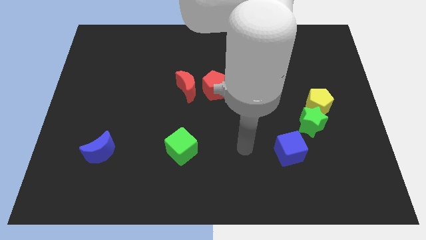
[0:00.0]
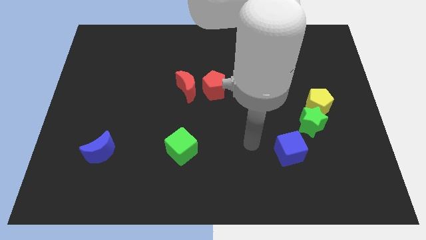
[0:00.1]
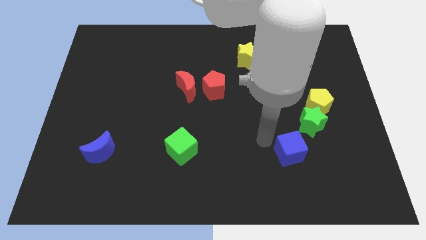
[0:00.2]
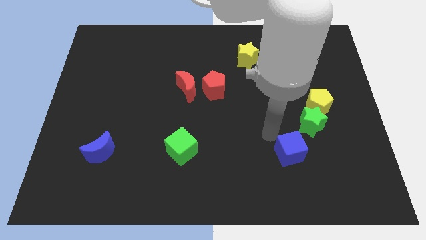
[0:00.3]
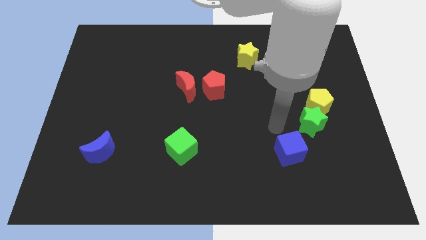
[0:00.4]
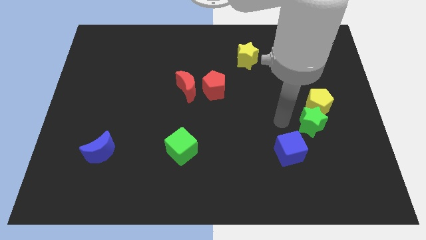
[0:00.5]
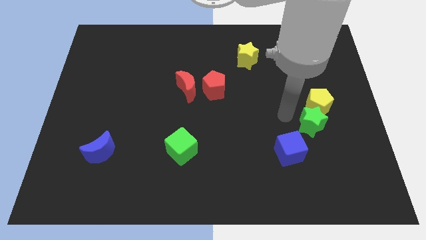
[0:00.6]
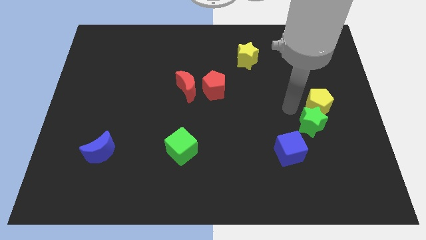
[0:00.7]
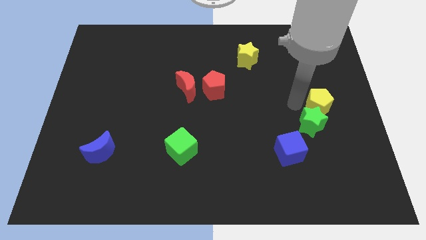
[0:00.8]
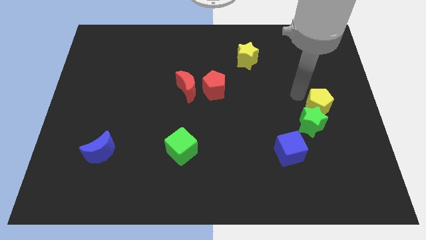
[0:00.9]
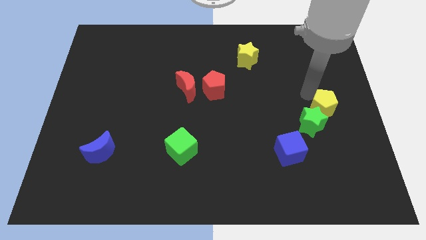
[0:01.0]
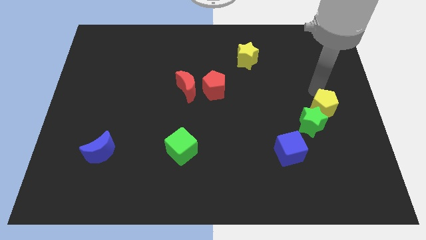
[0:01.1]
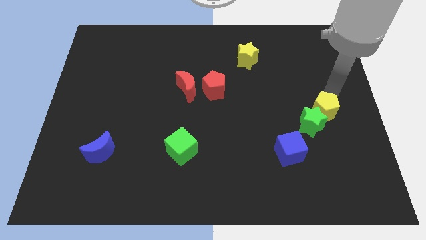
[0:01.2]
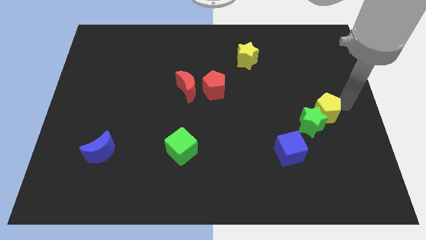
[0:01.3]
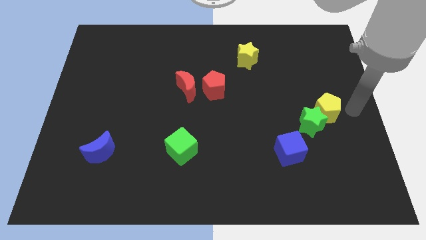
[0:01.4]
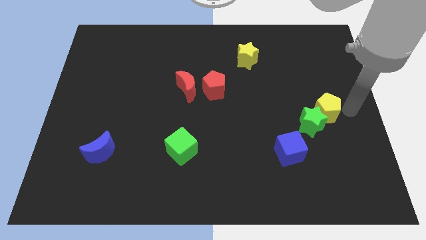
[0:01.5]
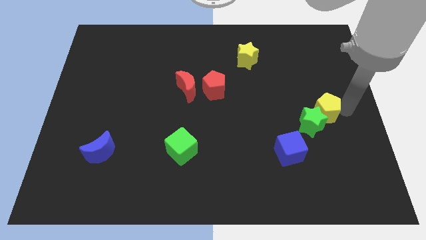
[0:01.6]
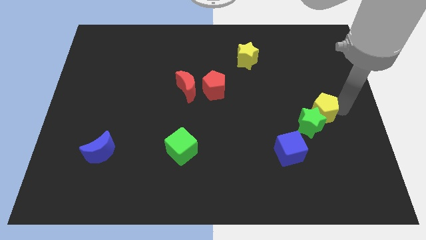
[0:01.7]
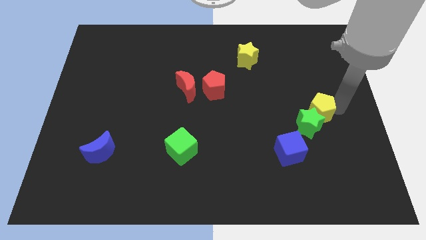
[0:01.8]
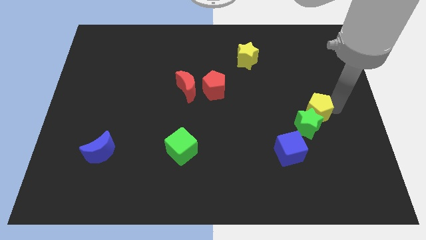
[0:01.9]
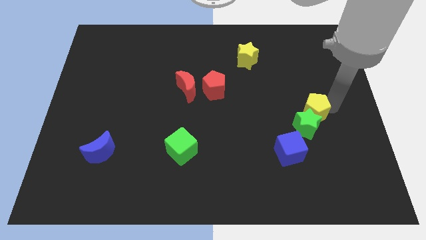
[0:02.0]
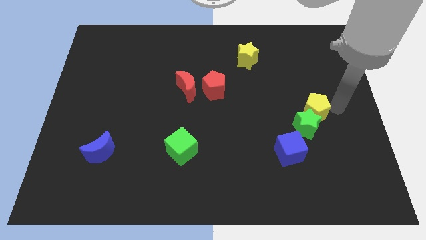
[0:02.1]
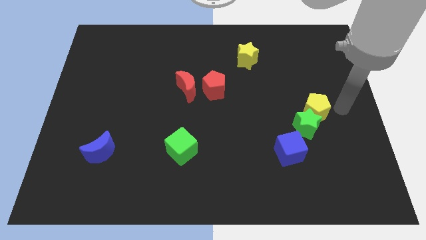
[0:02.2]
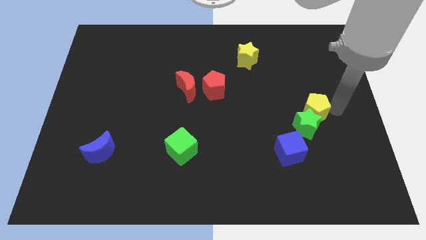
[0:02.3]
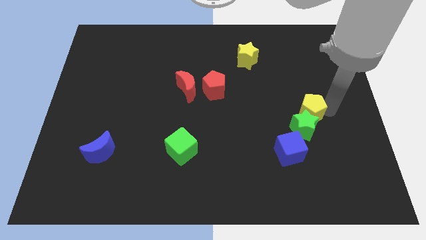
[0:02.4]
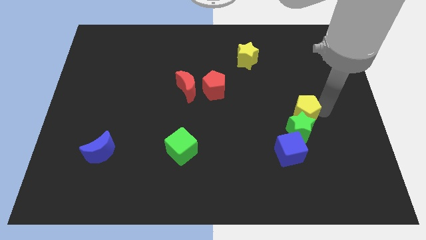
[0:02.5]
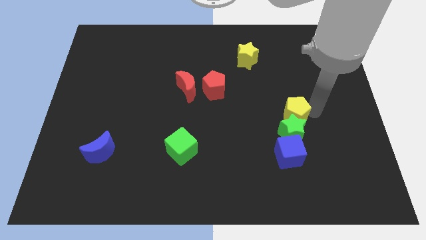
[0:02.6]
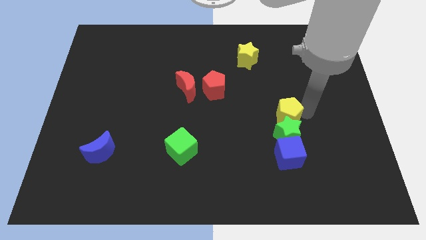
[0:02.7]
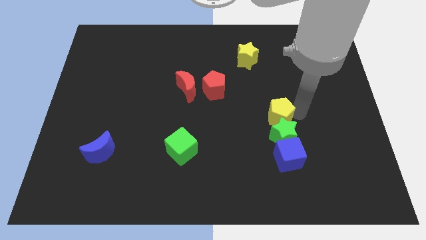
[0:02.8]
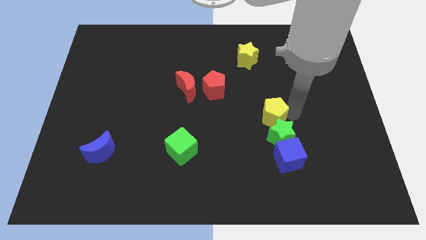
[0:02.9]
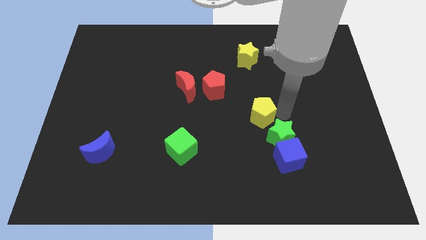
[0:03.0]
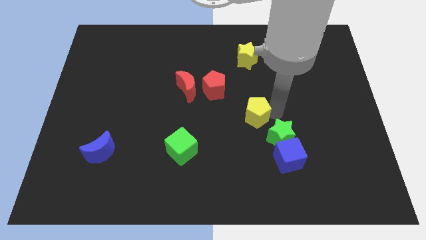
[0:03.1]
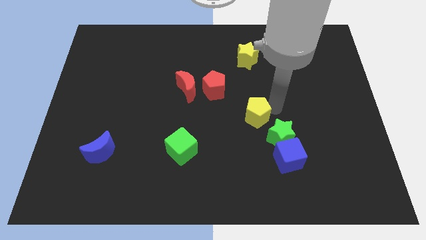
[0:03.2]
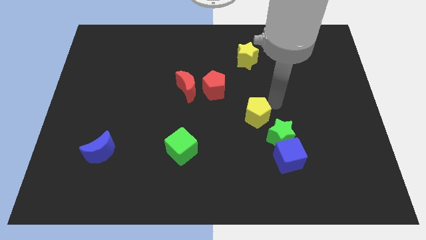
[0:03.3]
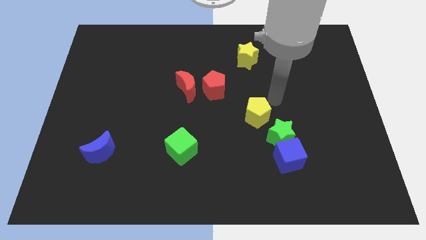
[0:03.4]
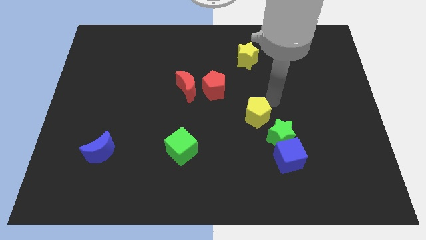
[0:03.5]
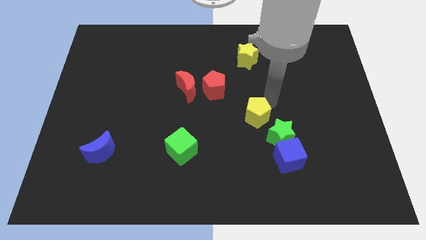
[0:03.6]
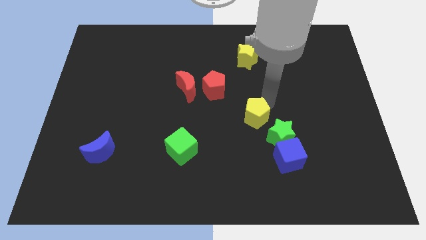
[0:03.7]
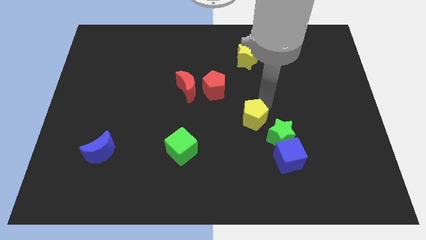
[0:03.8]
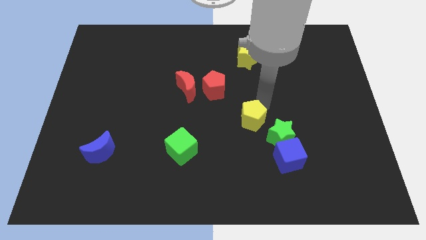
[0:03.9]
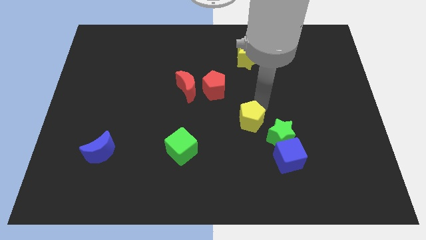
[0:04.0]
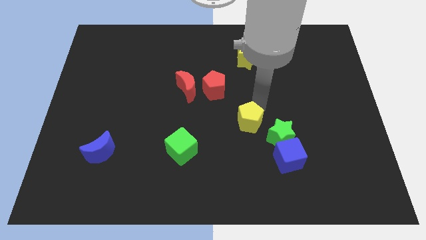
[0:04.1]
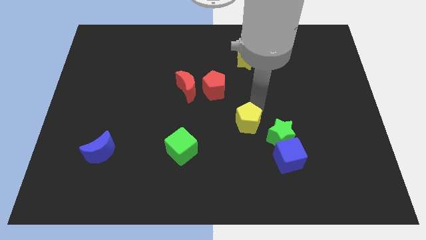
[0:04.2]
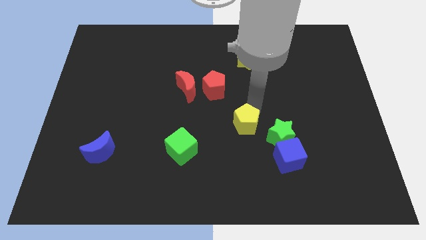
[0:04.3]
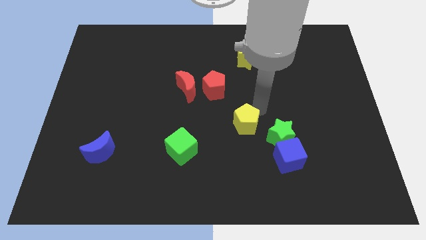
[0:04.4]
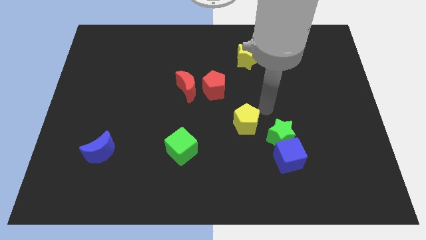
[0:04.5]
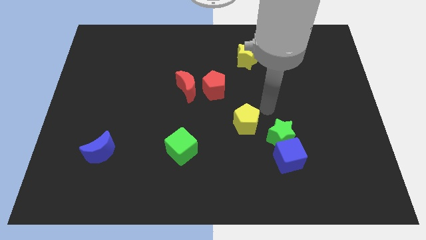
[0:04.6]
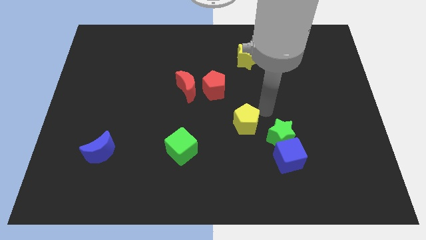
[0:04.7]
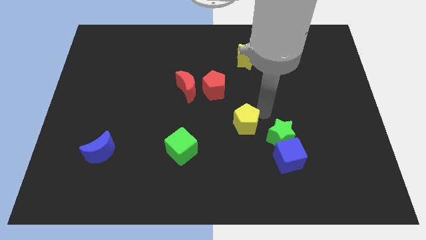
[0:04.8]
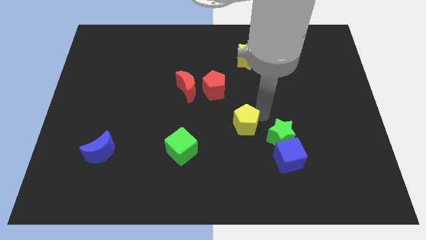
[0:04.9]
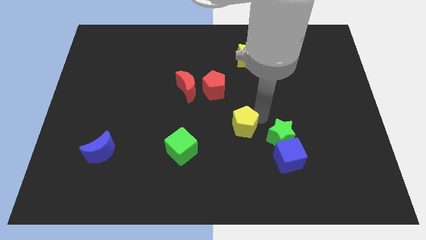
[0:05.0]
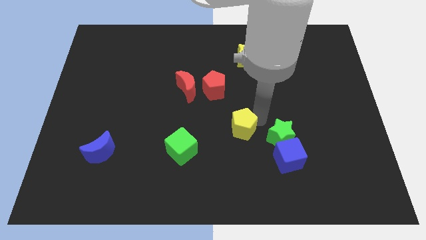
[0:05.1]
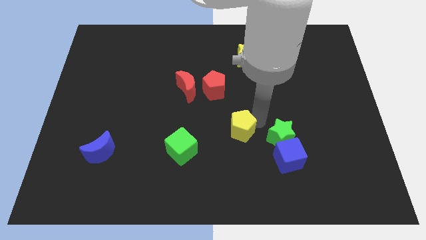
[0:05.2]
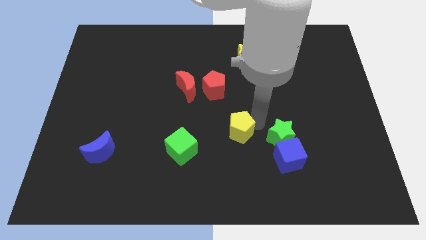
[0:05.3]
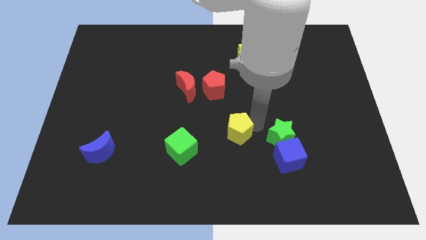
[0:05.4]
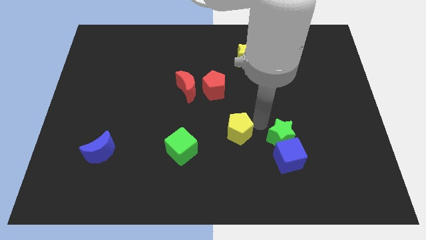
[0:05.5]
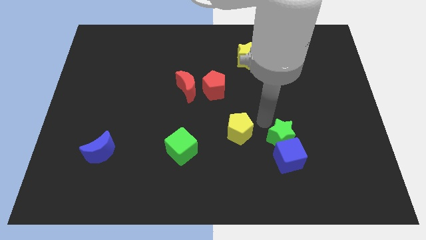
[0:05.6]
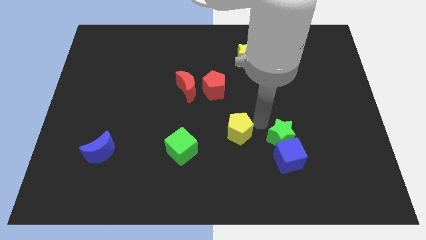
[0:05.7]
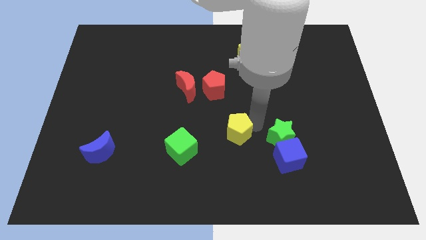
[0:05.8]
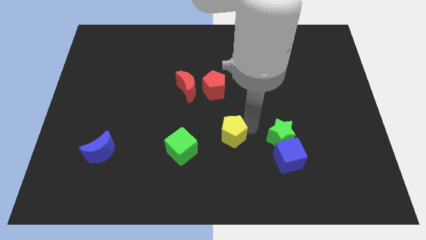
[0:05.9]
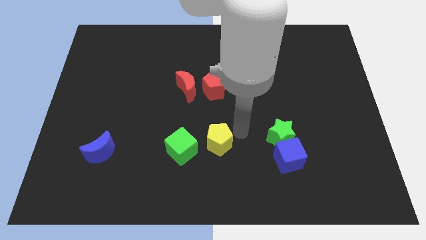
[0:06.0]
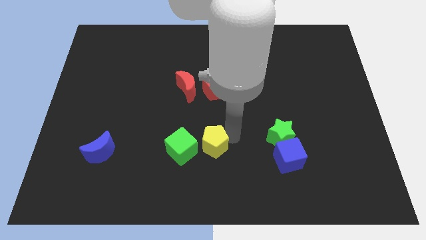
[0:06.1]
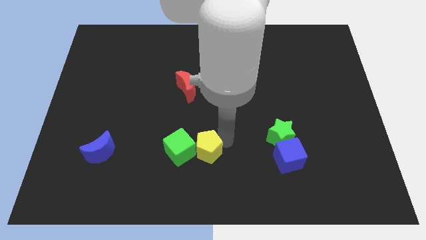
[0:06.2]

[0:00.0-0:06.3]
push the yellow pentagon close to the green cube

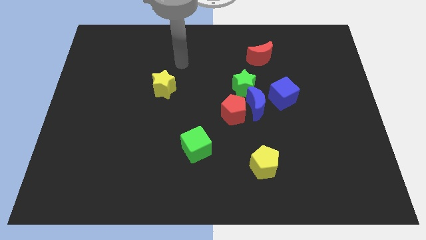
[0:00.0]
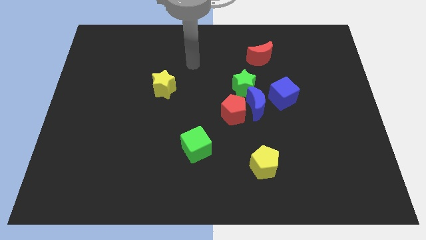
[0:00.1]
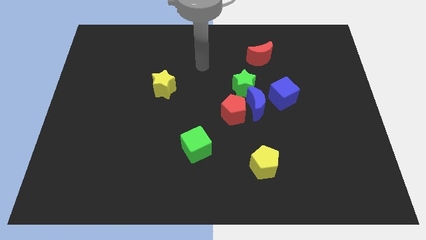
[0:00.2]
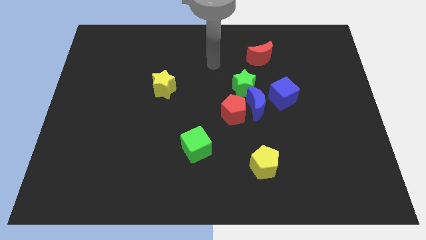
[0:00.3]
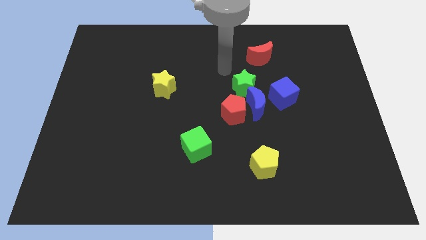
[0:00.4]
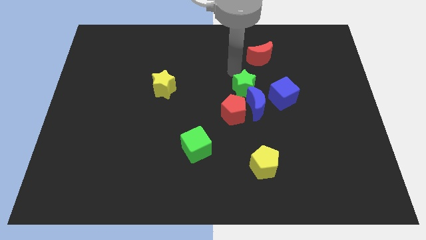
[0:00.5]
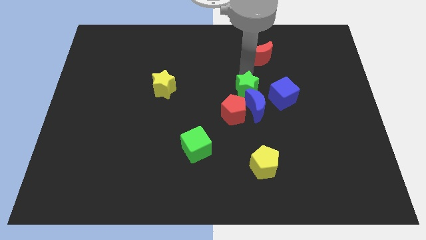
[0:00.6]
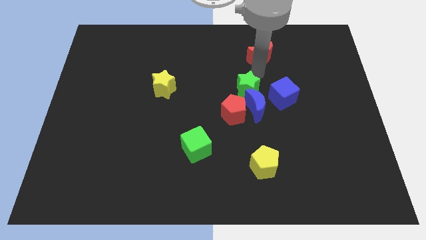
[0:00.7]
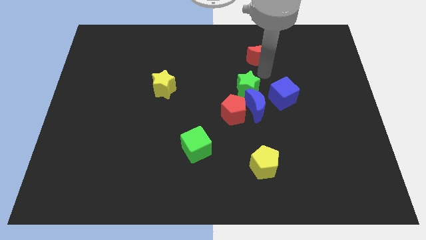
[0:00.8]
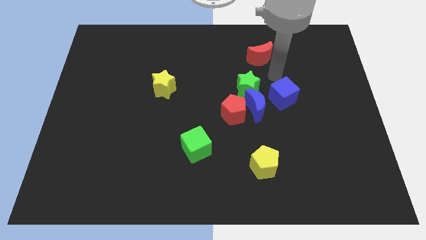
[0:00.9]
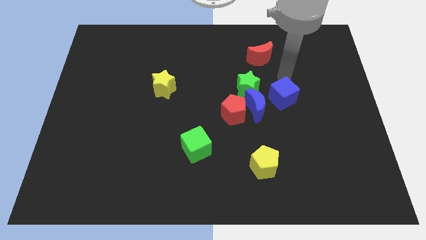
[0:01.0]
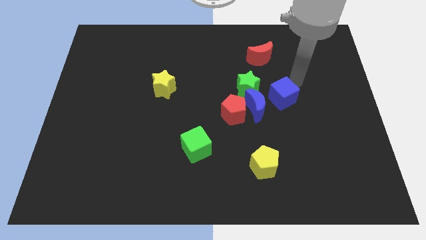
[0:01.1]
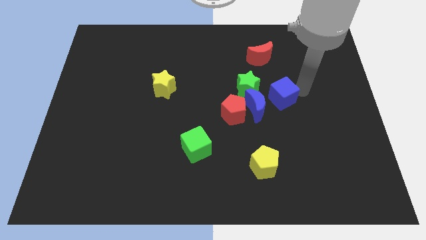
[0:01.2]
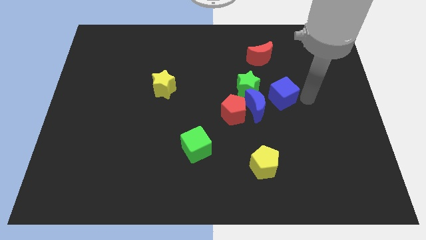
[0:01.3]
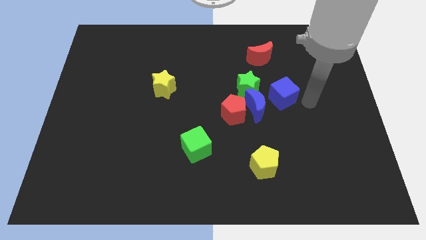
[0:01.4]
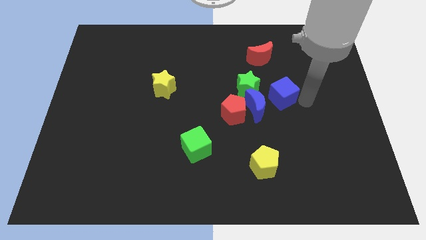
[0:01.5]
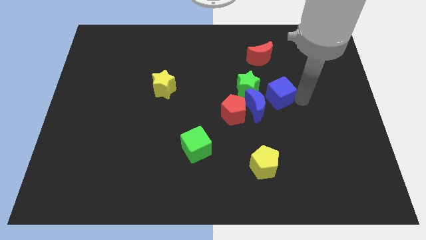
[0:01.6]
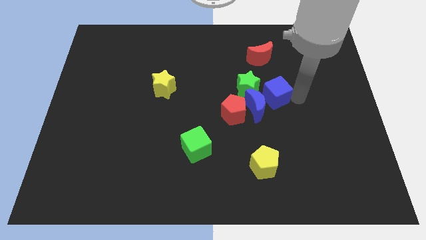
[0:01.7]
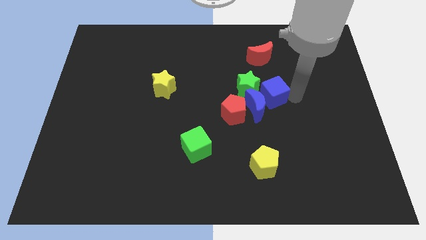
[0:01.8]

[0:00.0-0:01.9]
push the blue cube to the green star
